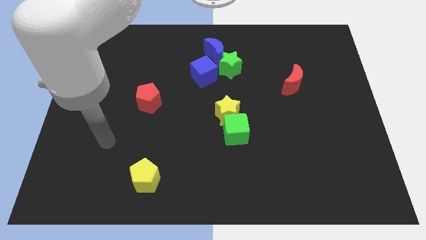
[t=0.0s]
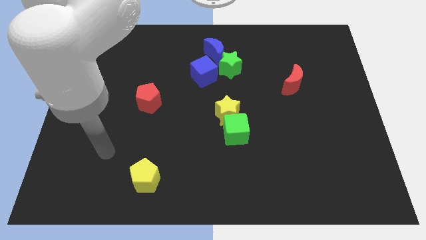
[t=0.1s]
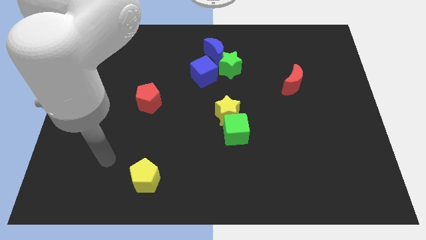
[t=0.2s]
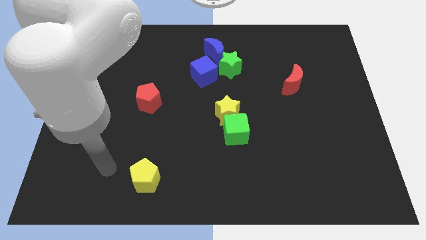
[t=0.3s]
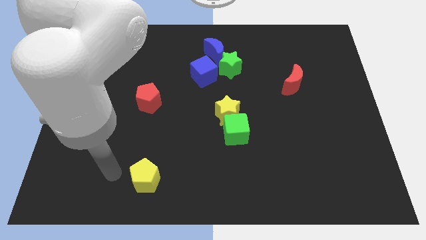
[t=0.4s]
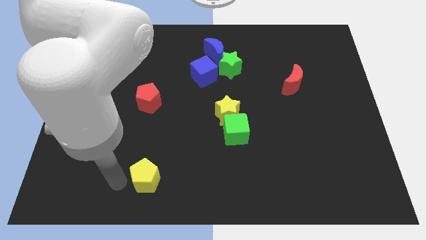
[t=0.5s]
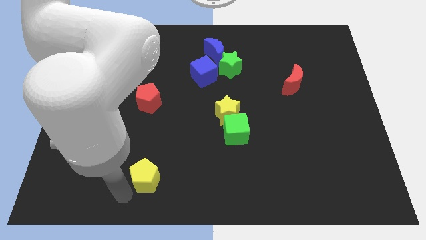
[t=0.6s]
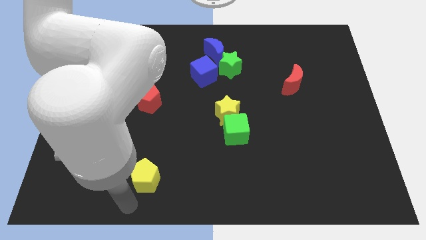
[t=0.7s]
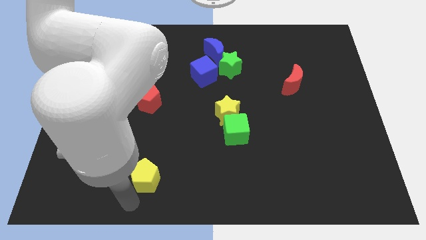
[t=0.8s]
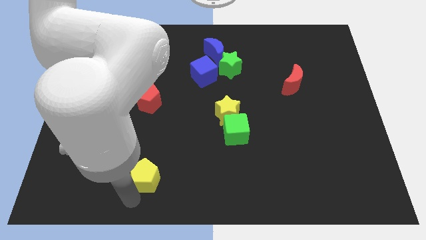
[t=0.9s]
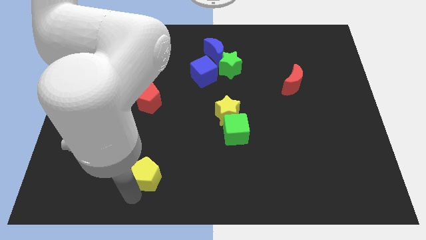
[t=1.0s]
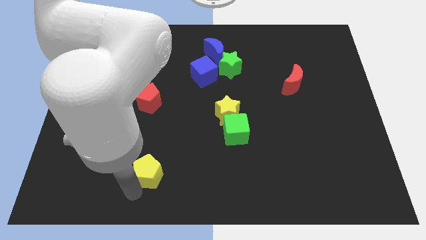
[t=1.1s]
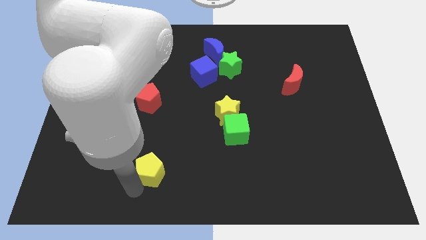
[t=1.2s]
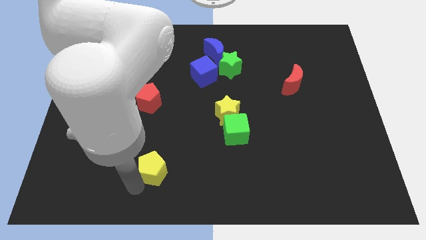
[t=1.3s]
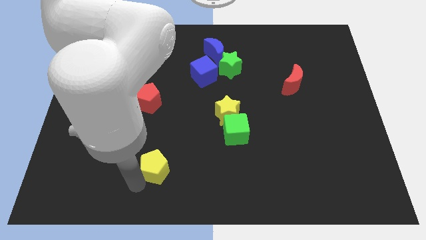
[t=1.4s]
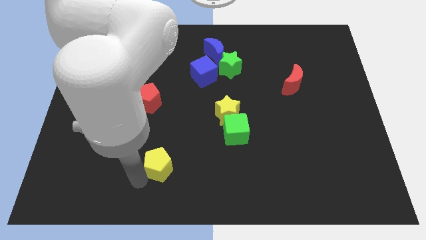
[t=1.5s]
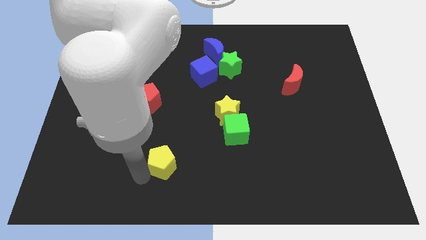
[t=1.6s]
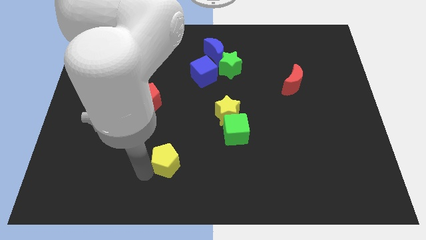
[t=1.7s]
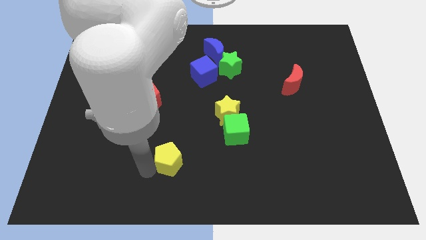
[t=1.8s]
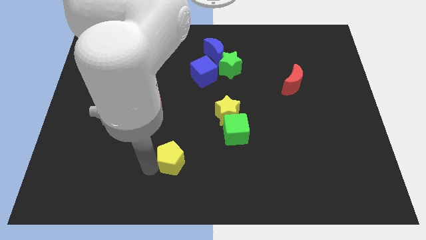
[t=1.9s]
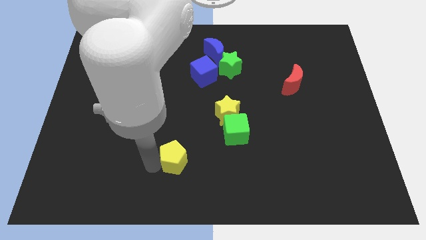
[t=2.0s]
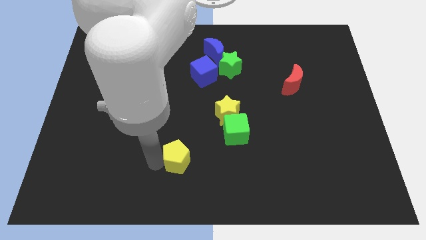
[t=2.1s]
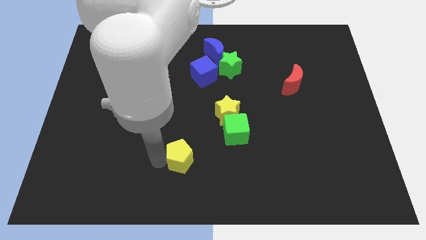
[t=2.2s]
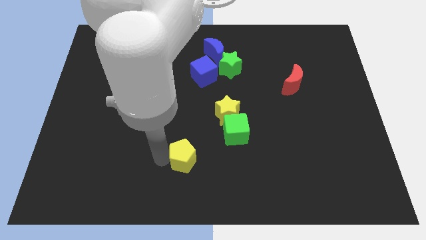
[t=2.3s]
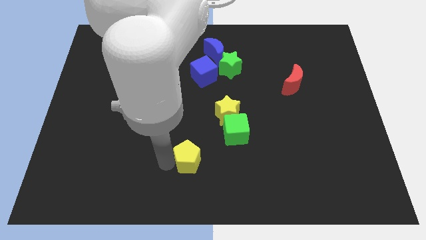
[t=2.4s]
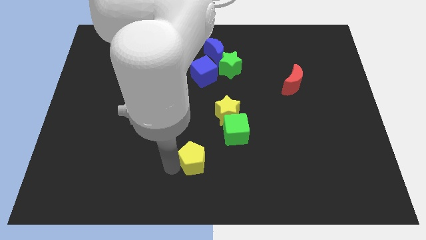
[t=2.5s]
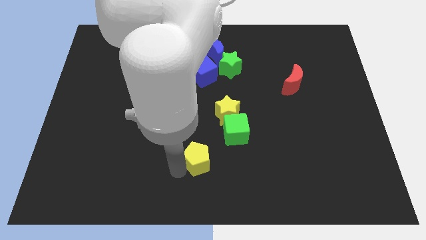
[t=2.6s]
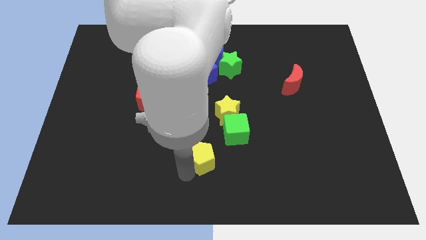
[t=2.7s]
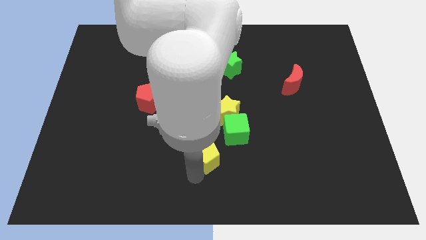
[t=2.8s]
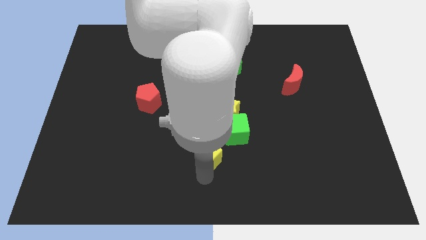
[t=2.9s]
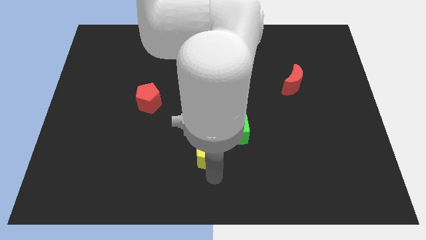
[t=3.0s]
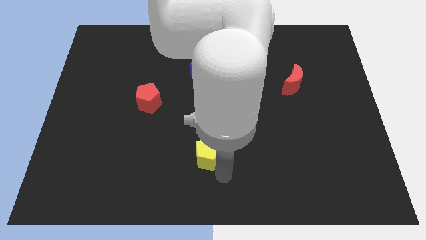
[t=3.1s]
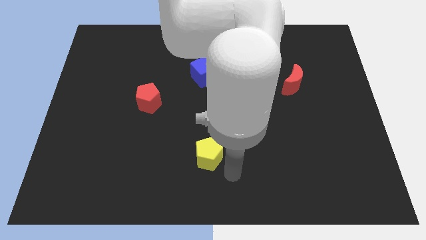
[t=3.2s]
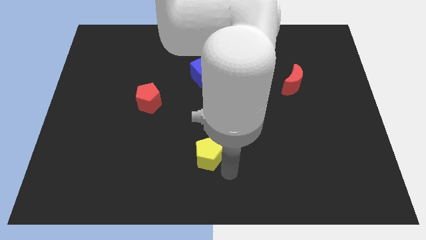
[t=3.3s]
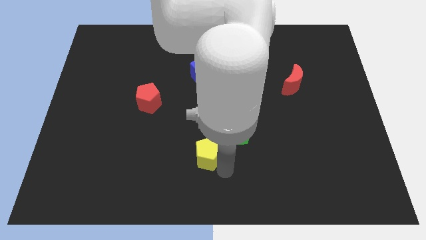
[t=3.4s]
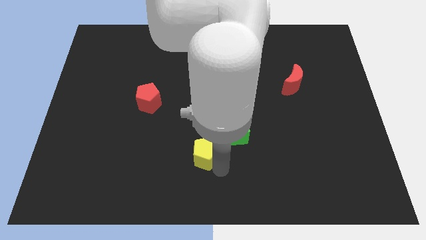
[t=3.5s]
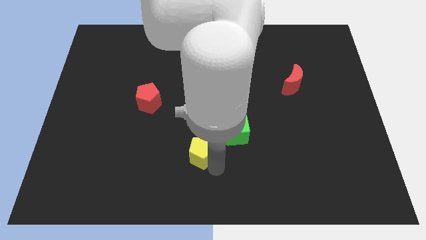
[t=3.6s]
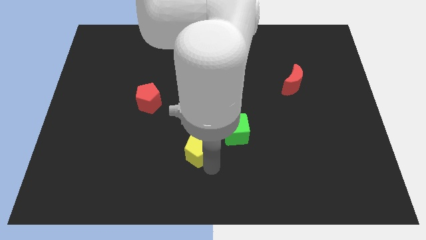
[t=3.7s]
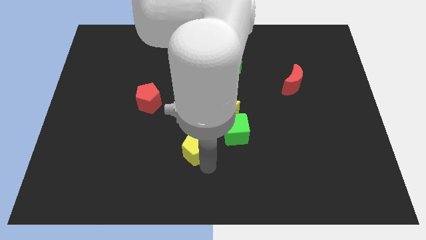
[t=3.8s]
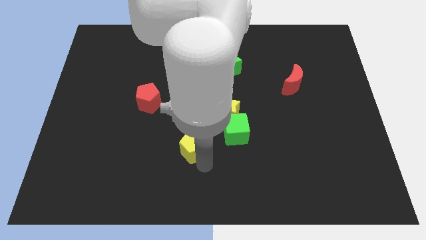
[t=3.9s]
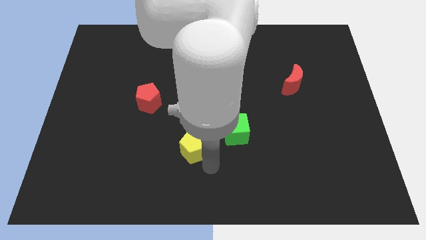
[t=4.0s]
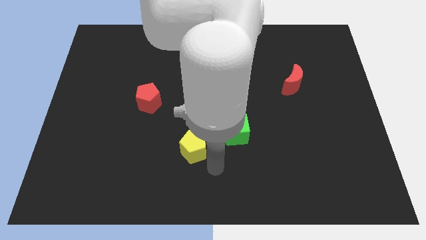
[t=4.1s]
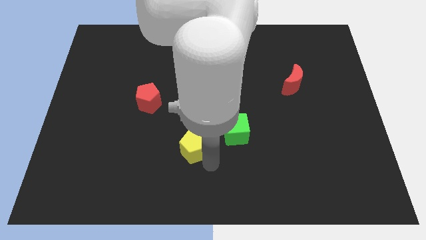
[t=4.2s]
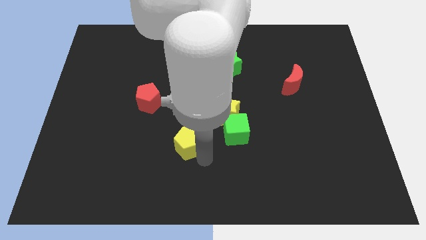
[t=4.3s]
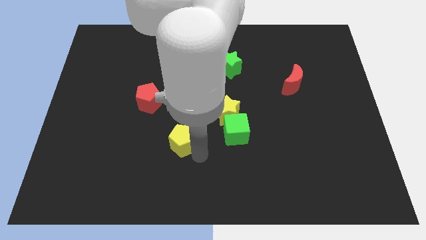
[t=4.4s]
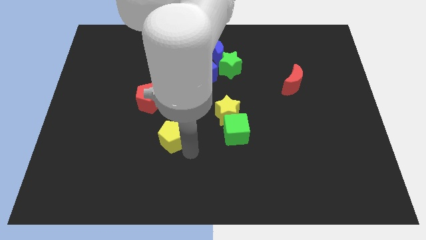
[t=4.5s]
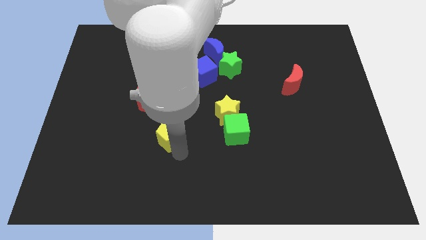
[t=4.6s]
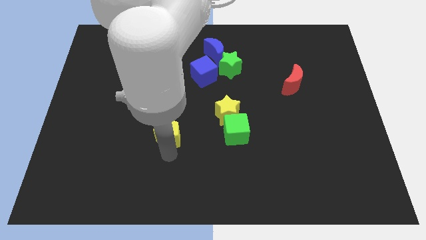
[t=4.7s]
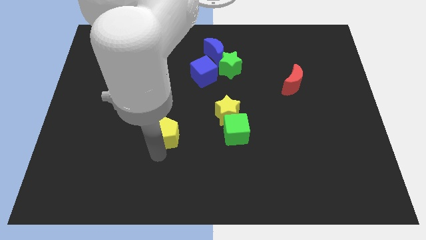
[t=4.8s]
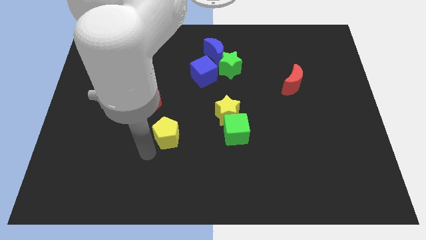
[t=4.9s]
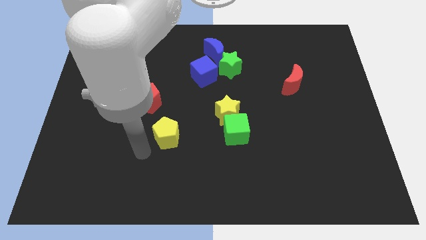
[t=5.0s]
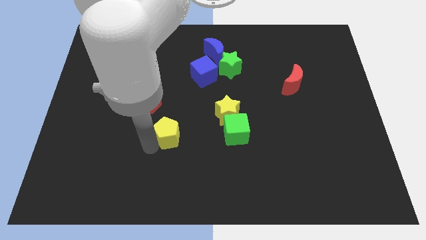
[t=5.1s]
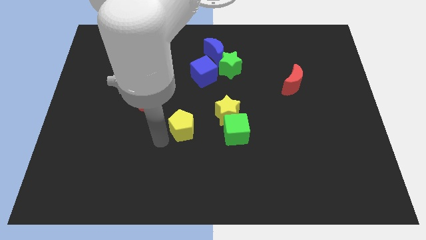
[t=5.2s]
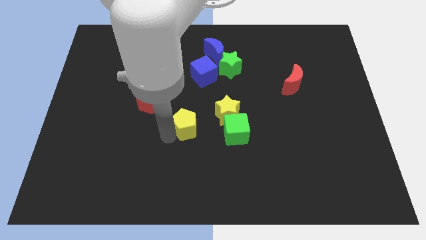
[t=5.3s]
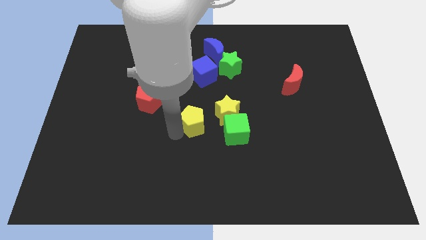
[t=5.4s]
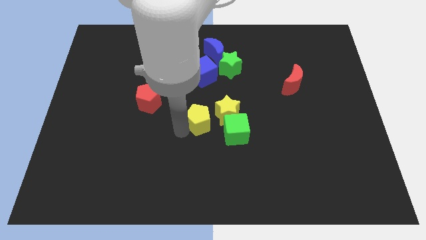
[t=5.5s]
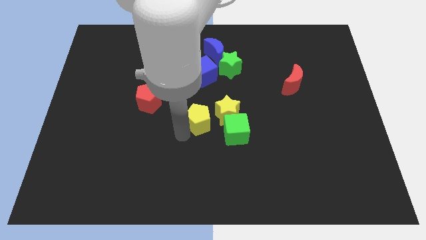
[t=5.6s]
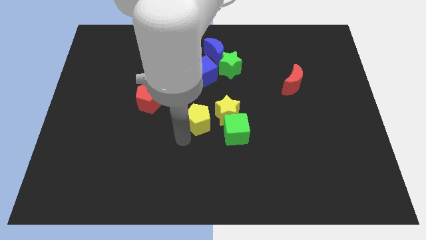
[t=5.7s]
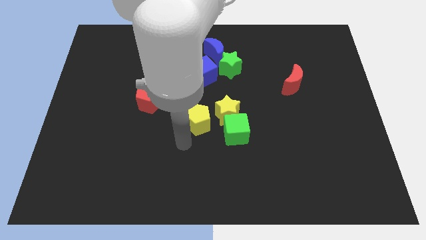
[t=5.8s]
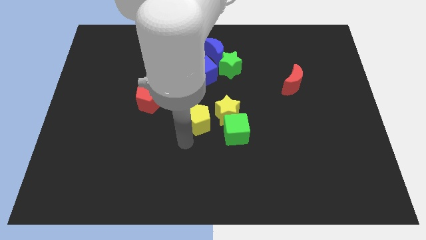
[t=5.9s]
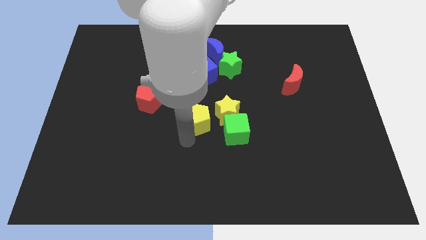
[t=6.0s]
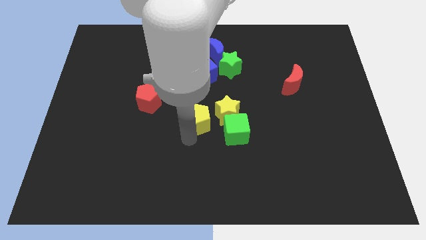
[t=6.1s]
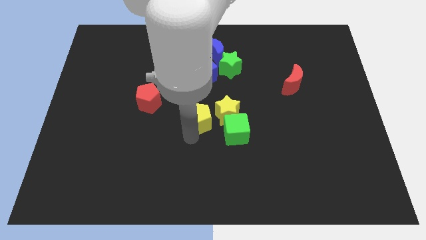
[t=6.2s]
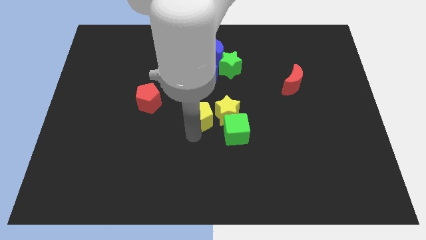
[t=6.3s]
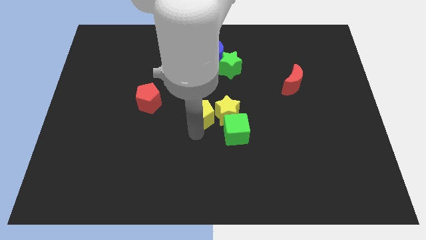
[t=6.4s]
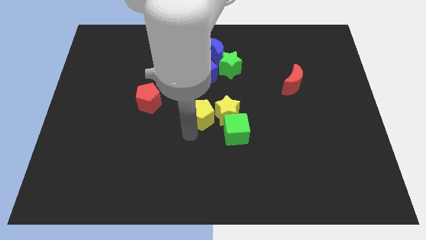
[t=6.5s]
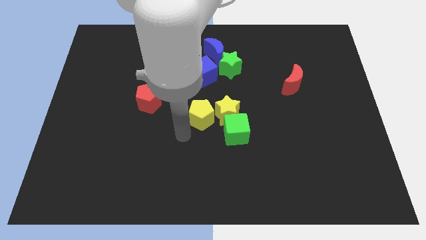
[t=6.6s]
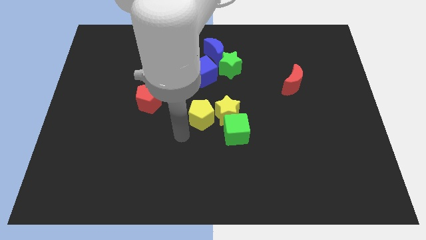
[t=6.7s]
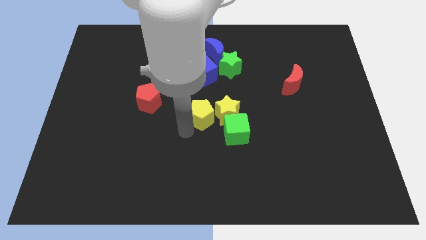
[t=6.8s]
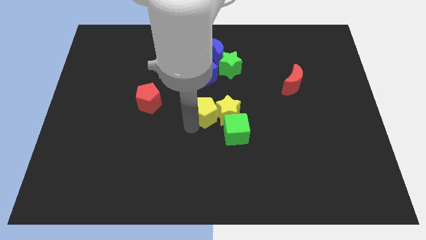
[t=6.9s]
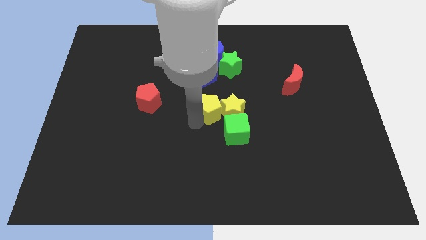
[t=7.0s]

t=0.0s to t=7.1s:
push the yellow pentagon up and to the right

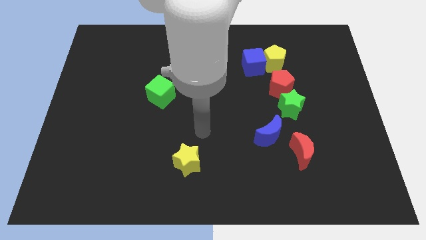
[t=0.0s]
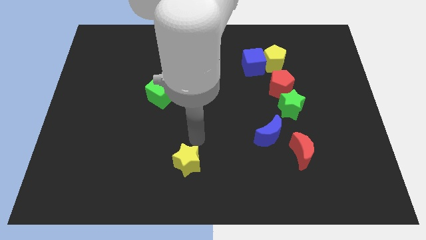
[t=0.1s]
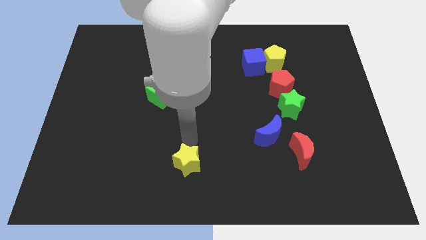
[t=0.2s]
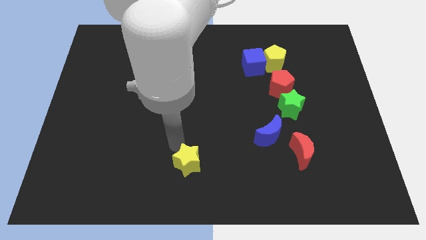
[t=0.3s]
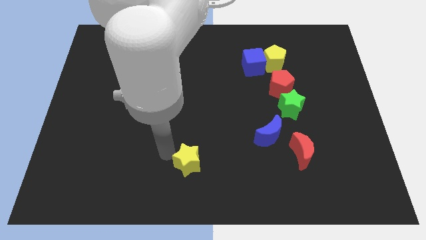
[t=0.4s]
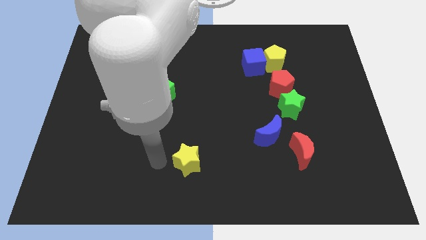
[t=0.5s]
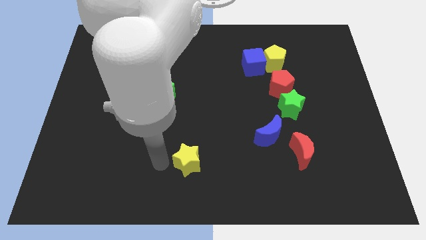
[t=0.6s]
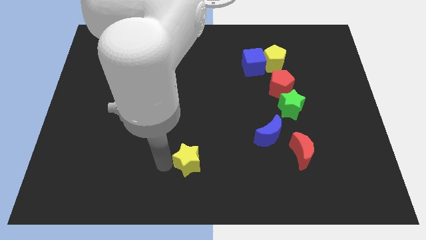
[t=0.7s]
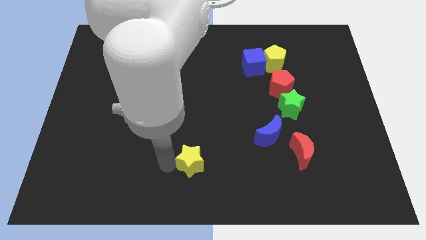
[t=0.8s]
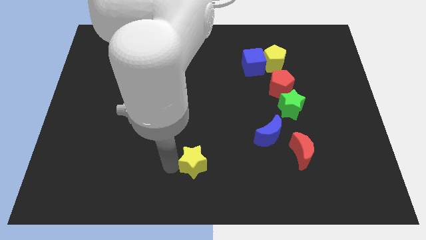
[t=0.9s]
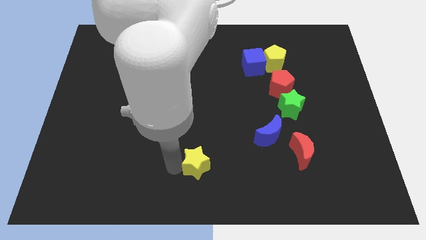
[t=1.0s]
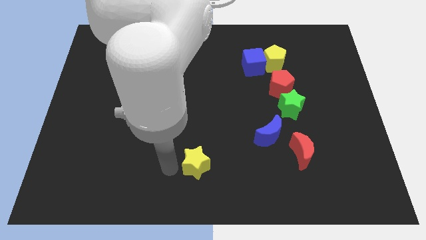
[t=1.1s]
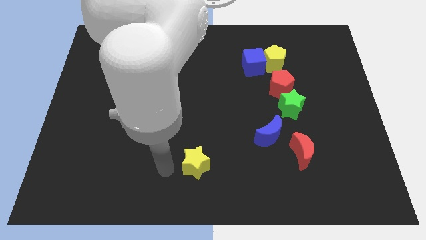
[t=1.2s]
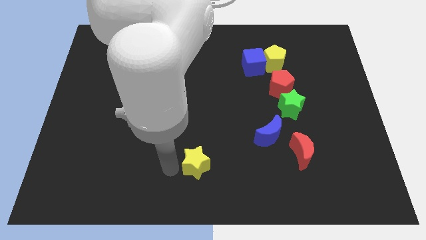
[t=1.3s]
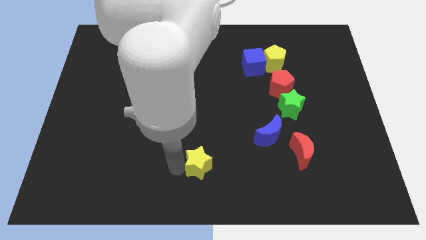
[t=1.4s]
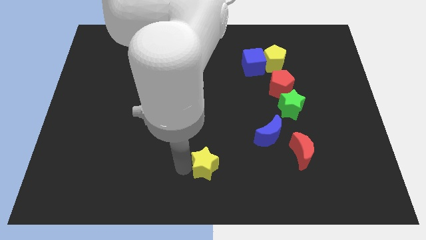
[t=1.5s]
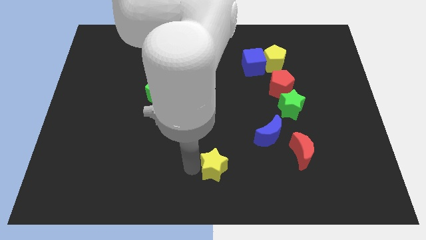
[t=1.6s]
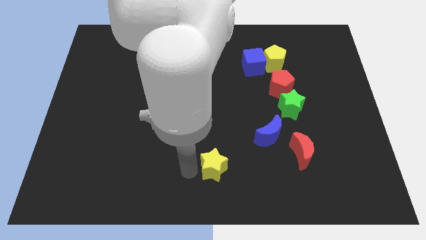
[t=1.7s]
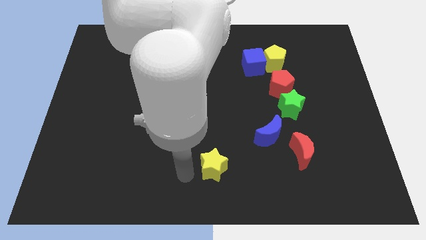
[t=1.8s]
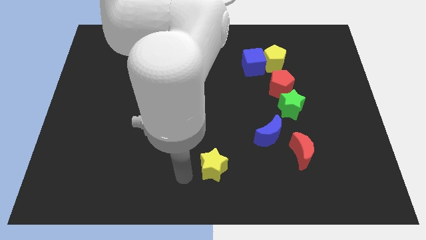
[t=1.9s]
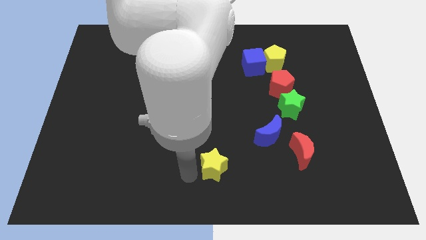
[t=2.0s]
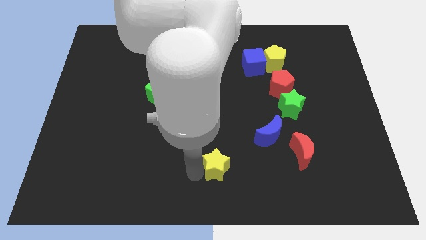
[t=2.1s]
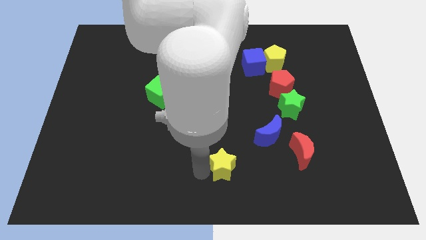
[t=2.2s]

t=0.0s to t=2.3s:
move the yellow star to the right a bit
